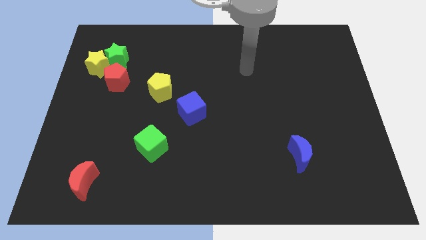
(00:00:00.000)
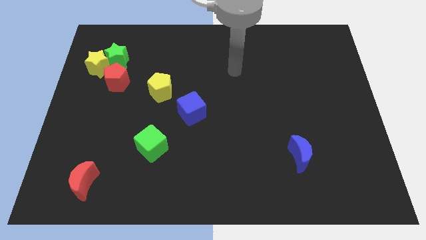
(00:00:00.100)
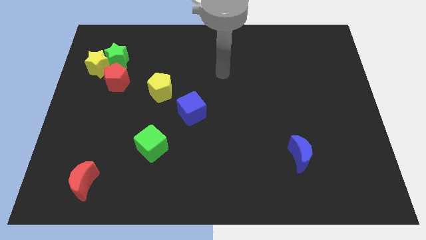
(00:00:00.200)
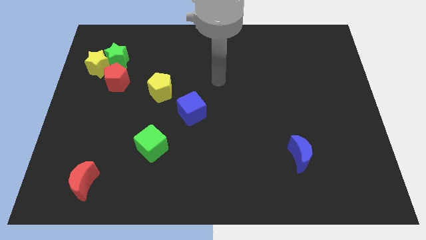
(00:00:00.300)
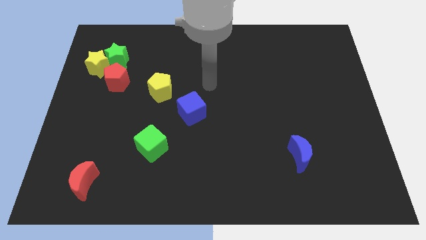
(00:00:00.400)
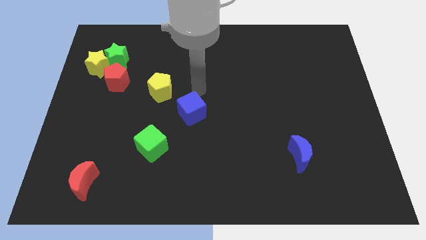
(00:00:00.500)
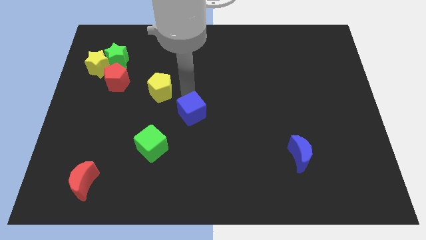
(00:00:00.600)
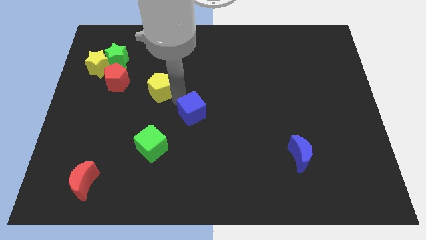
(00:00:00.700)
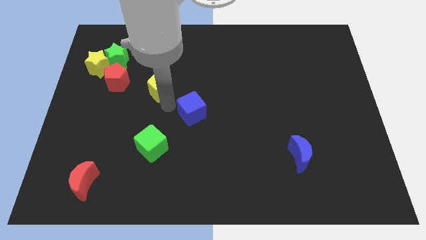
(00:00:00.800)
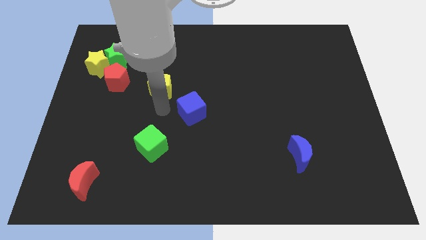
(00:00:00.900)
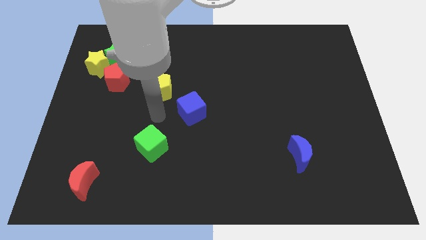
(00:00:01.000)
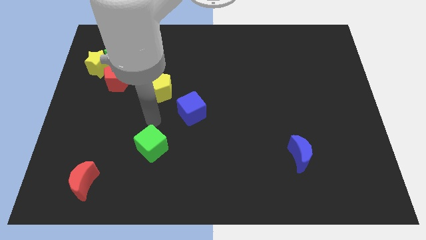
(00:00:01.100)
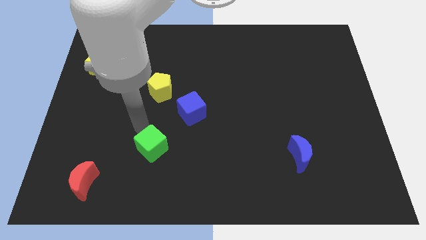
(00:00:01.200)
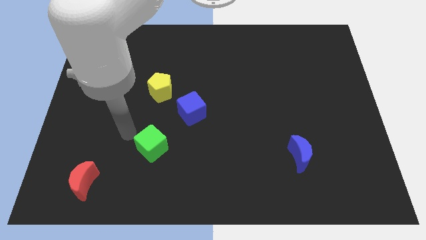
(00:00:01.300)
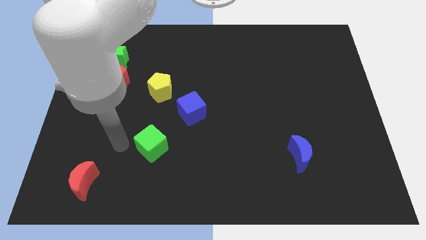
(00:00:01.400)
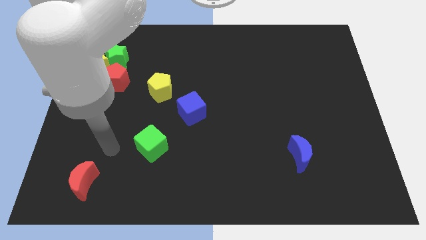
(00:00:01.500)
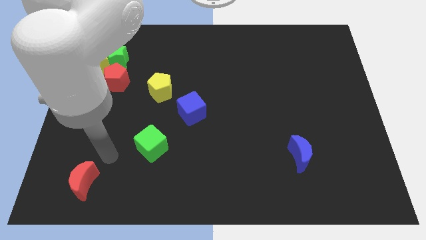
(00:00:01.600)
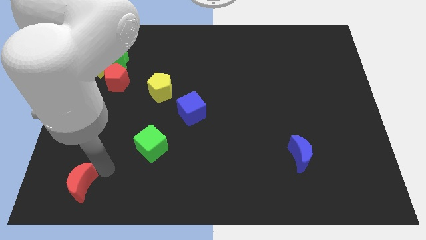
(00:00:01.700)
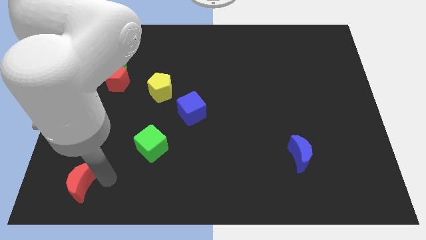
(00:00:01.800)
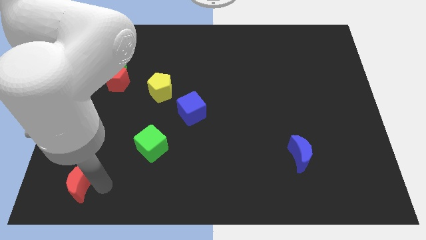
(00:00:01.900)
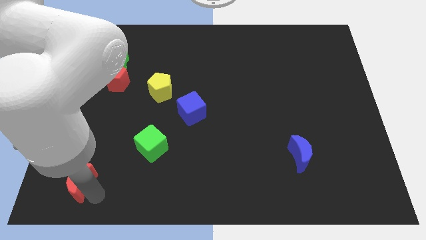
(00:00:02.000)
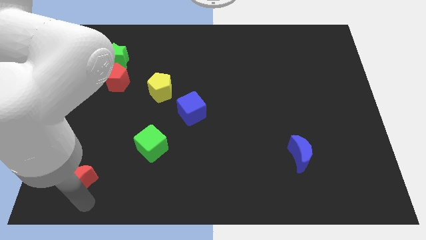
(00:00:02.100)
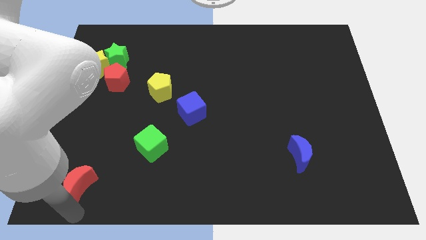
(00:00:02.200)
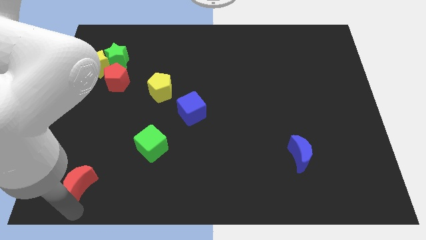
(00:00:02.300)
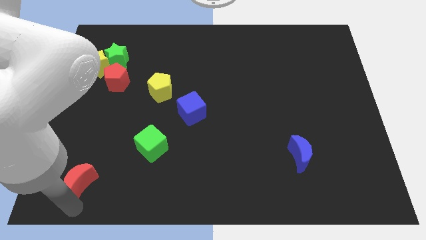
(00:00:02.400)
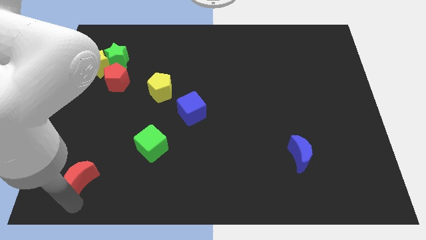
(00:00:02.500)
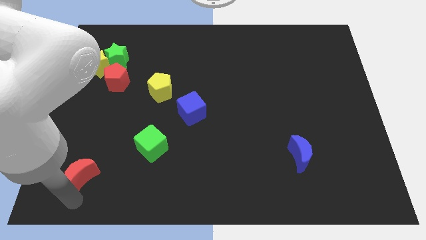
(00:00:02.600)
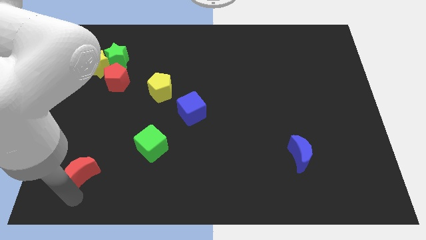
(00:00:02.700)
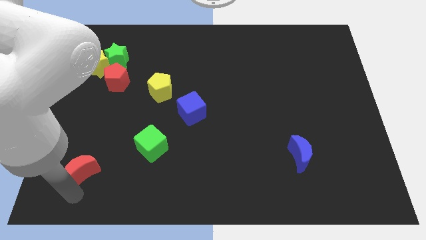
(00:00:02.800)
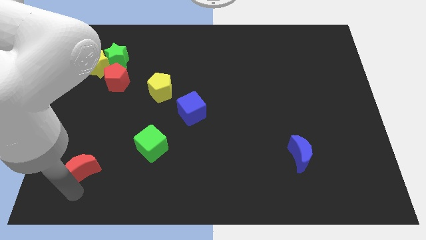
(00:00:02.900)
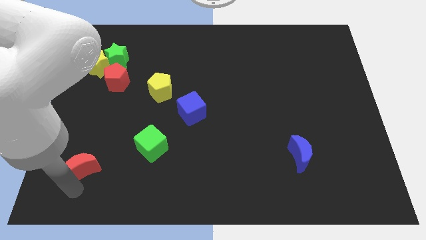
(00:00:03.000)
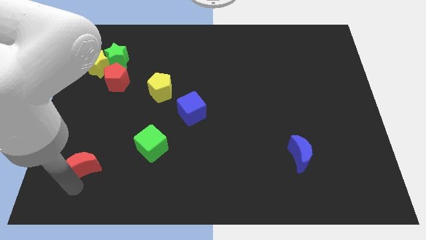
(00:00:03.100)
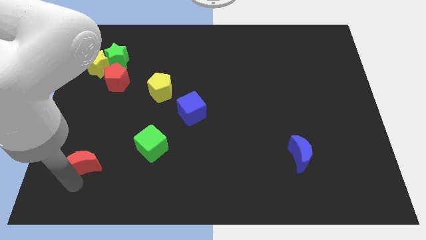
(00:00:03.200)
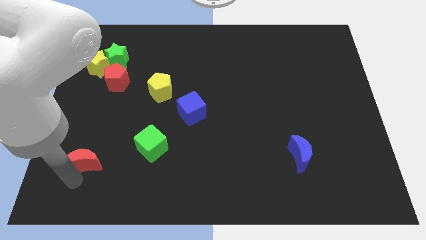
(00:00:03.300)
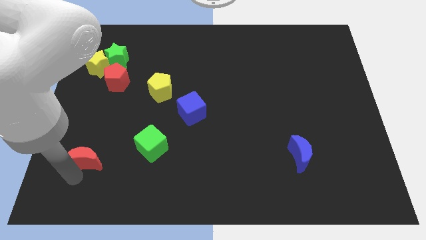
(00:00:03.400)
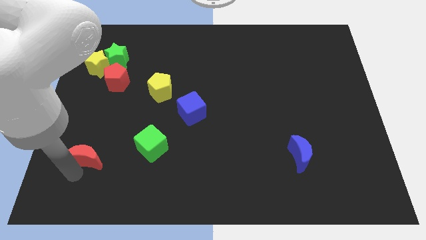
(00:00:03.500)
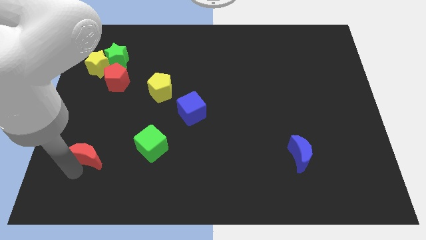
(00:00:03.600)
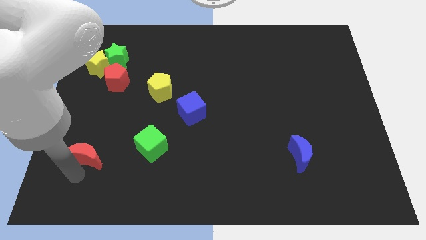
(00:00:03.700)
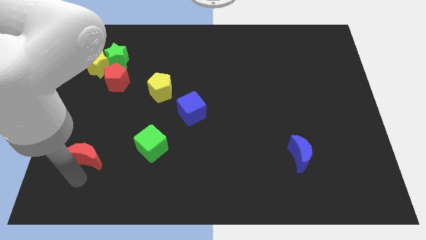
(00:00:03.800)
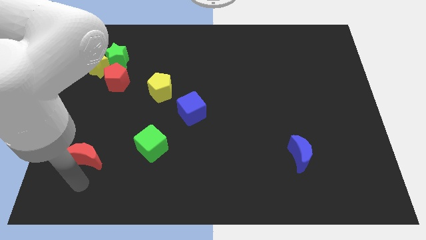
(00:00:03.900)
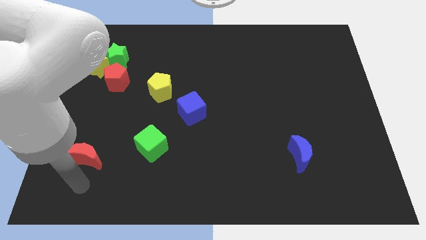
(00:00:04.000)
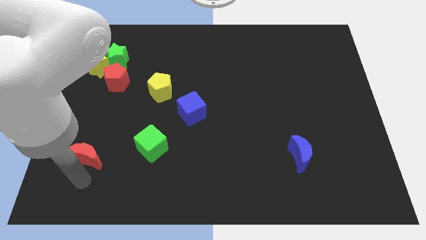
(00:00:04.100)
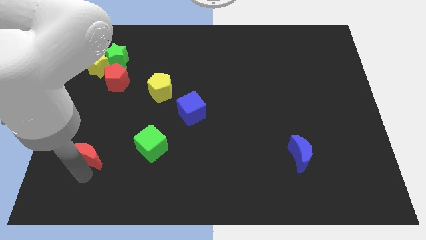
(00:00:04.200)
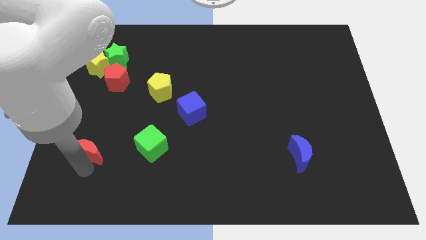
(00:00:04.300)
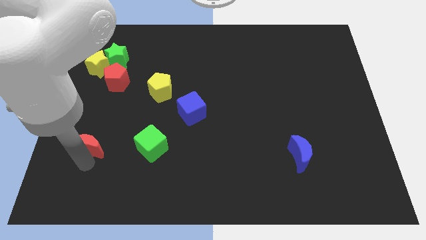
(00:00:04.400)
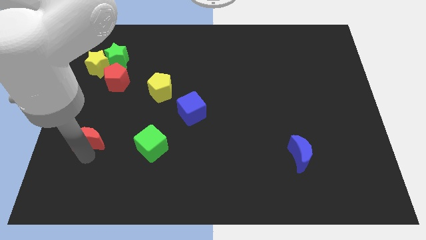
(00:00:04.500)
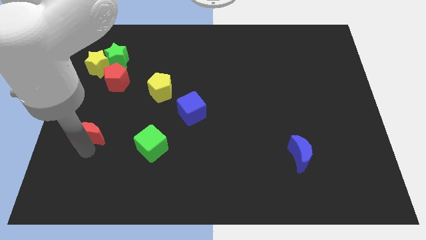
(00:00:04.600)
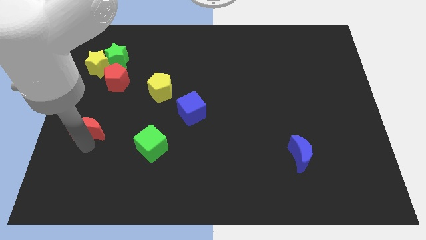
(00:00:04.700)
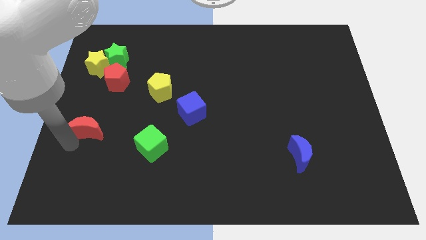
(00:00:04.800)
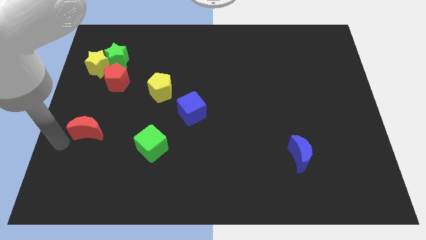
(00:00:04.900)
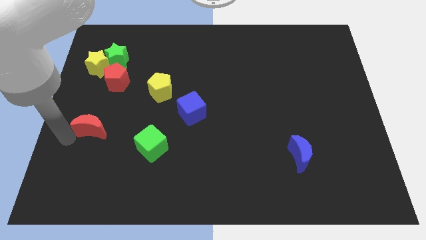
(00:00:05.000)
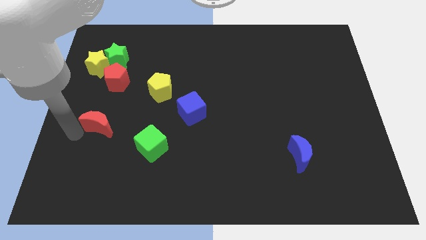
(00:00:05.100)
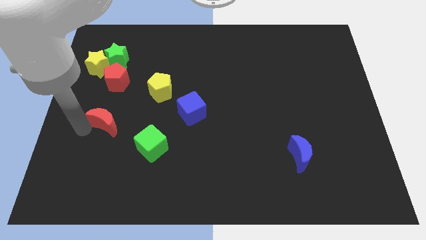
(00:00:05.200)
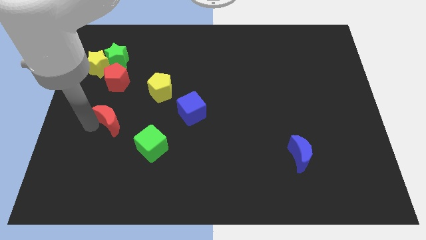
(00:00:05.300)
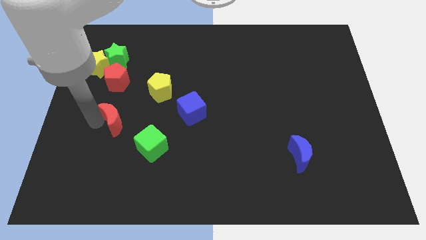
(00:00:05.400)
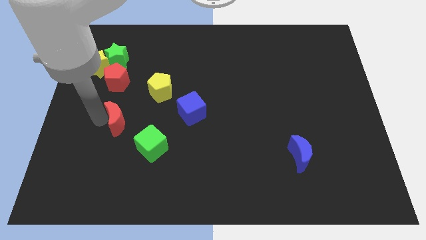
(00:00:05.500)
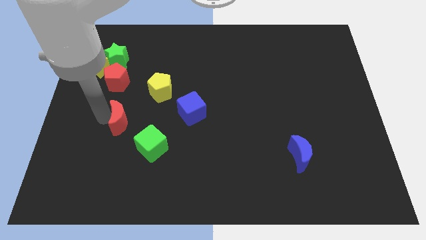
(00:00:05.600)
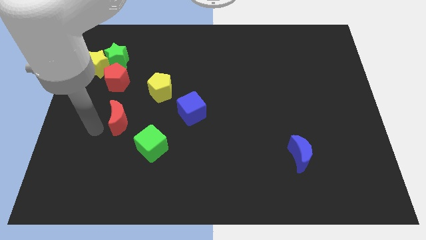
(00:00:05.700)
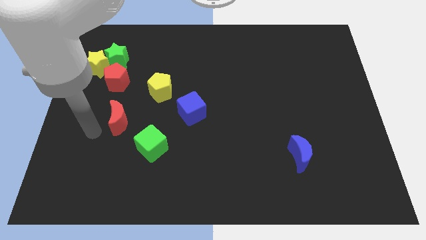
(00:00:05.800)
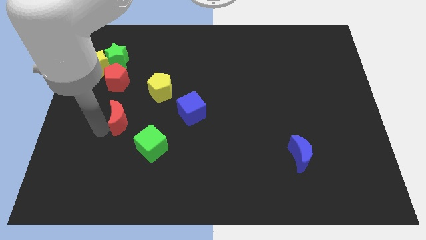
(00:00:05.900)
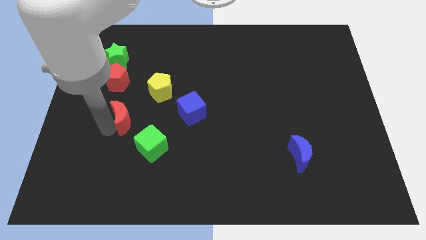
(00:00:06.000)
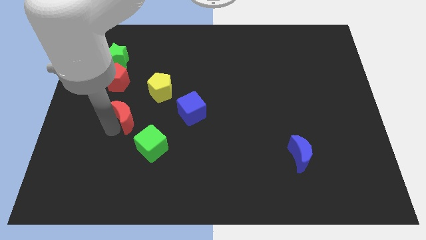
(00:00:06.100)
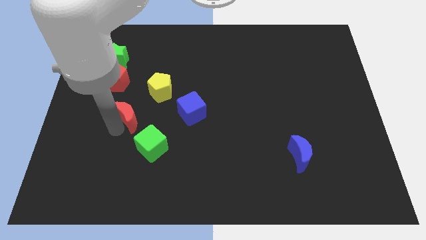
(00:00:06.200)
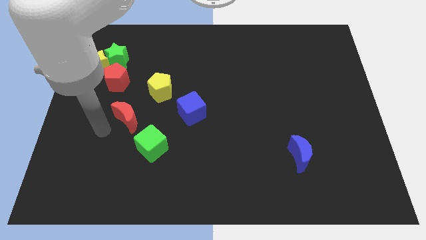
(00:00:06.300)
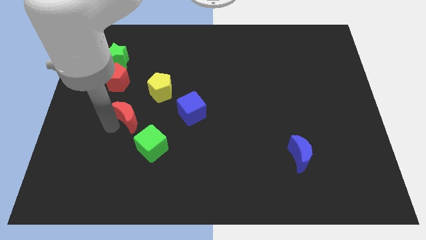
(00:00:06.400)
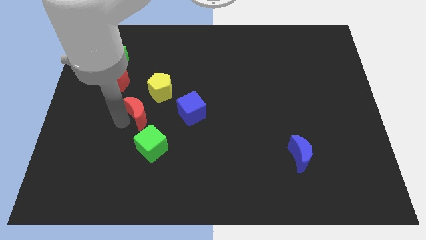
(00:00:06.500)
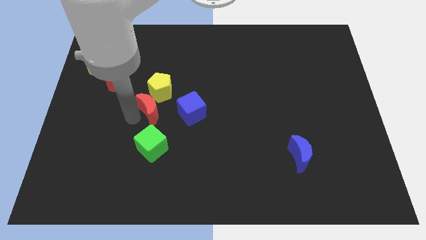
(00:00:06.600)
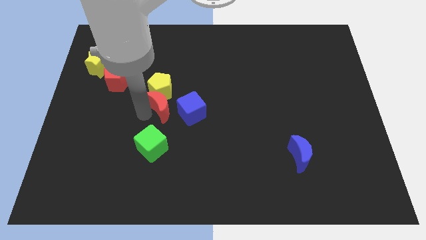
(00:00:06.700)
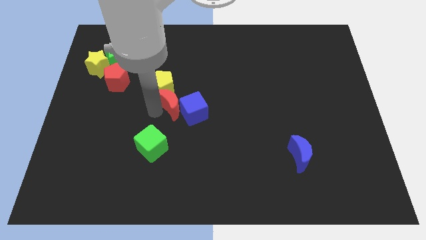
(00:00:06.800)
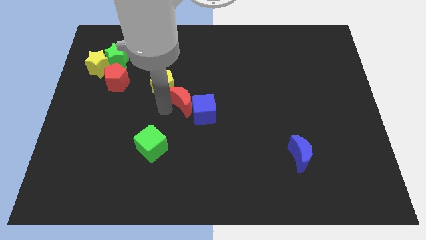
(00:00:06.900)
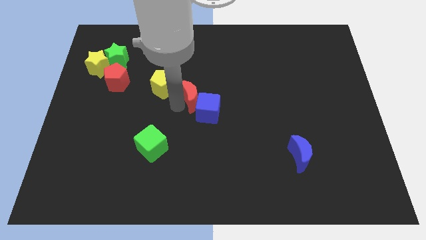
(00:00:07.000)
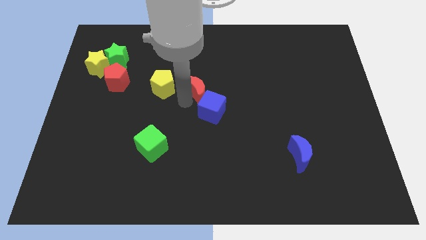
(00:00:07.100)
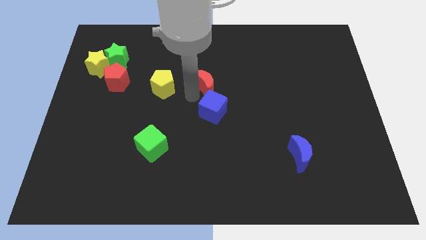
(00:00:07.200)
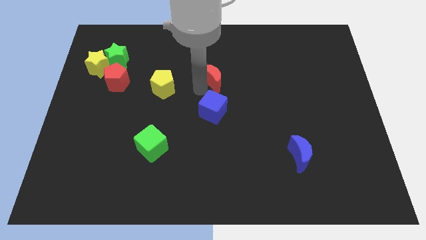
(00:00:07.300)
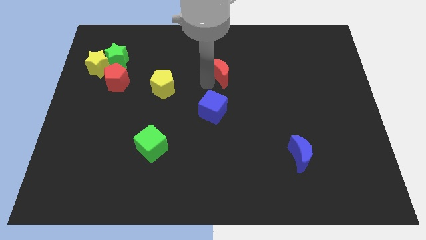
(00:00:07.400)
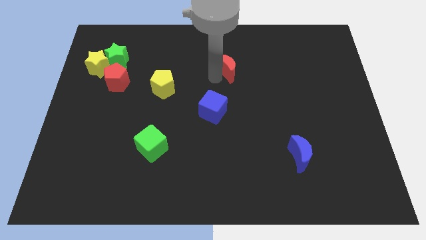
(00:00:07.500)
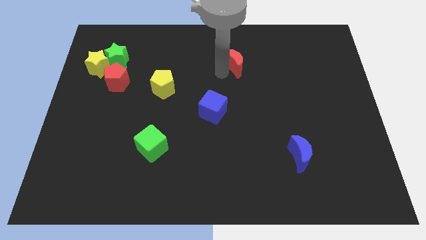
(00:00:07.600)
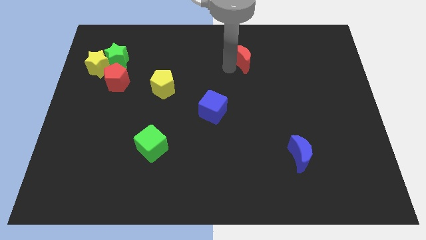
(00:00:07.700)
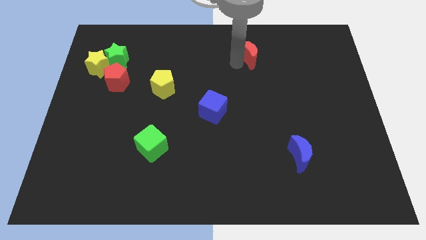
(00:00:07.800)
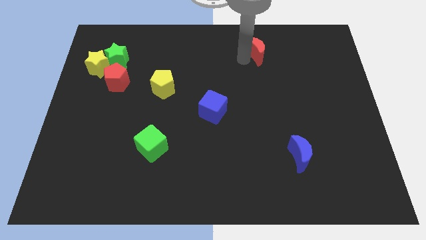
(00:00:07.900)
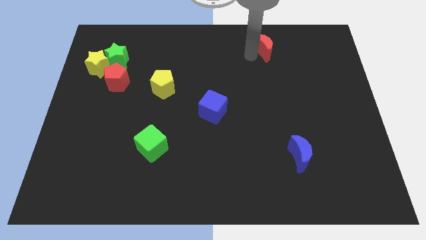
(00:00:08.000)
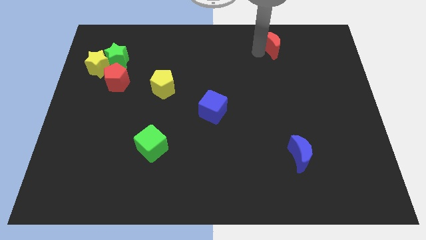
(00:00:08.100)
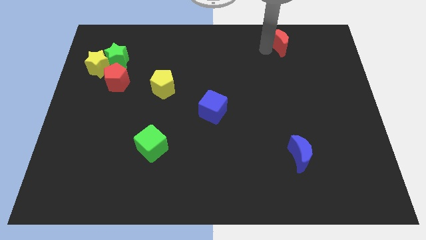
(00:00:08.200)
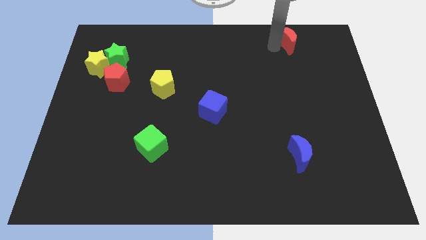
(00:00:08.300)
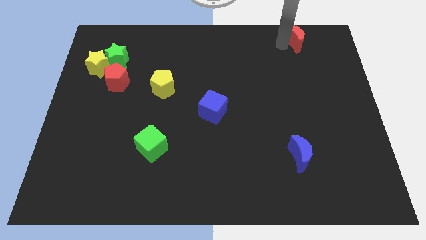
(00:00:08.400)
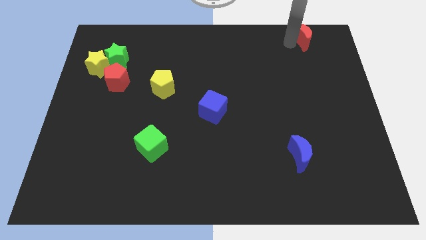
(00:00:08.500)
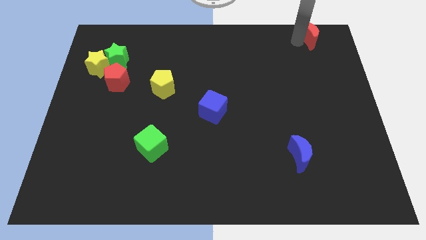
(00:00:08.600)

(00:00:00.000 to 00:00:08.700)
slide the red moon to the top right
